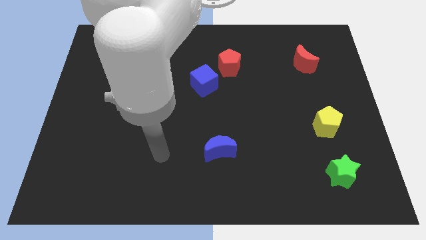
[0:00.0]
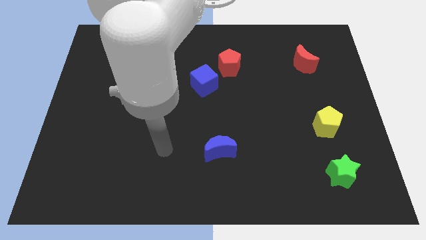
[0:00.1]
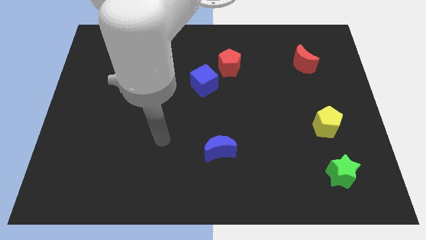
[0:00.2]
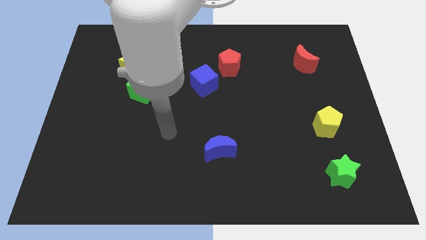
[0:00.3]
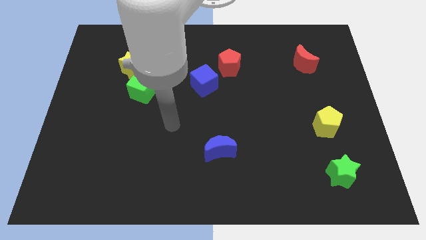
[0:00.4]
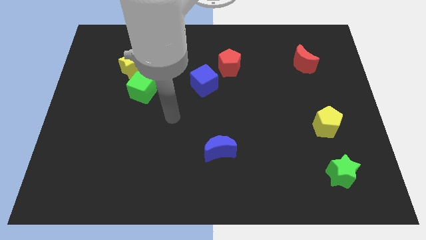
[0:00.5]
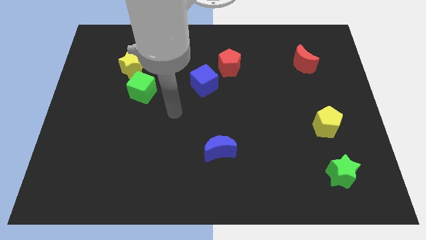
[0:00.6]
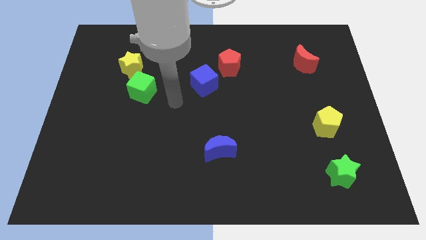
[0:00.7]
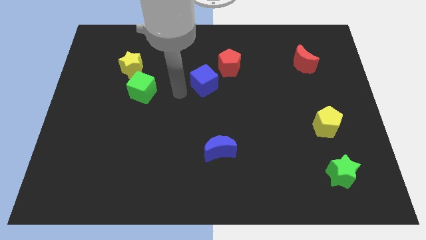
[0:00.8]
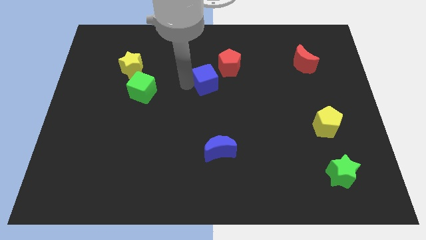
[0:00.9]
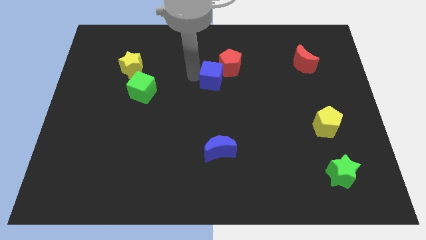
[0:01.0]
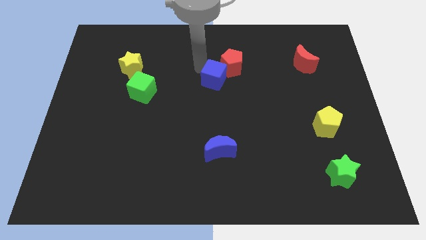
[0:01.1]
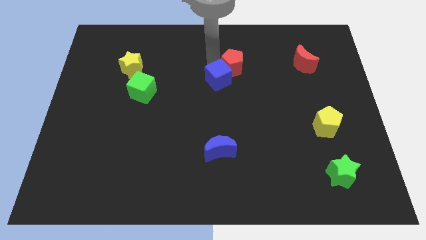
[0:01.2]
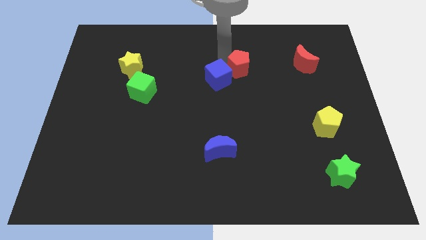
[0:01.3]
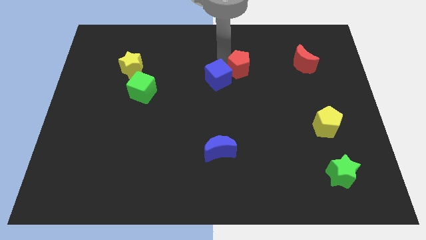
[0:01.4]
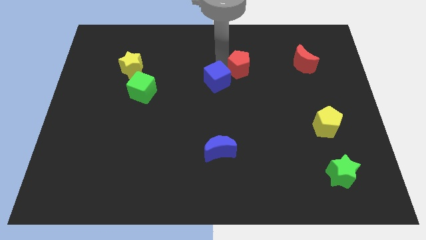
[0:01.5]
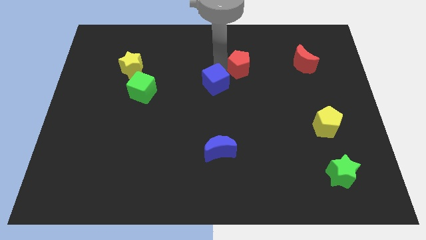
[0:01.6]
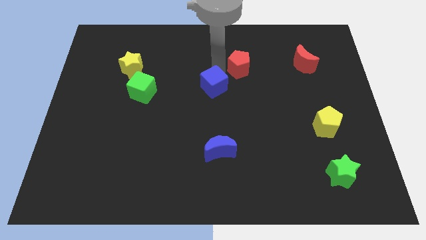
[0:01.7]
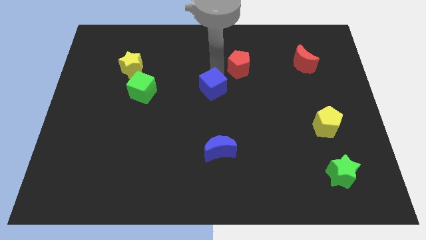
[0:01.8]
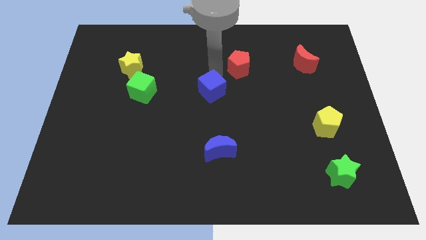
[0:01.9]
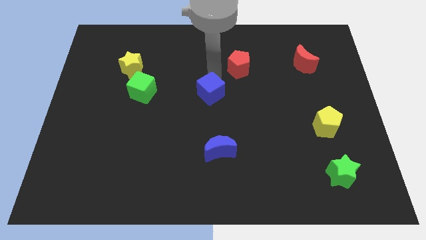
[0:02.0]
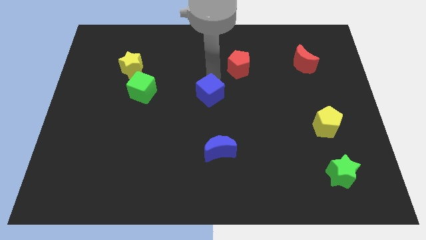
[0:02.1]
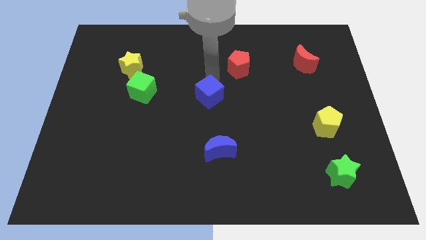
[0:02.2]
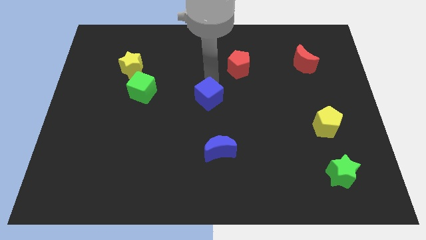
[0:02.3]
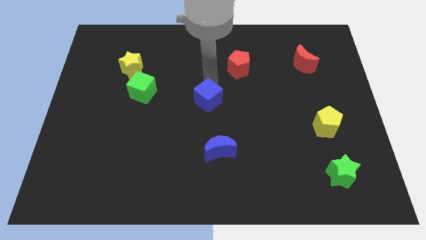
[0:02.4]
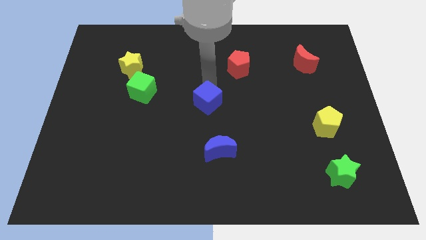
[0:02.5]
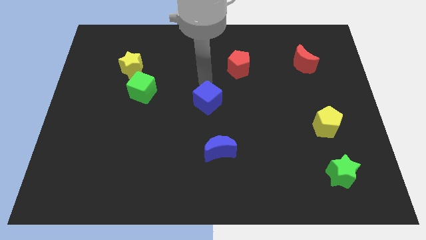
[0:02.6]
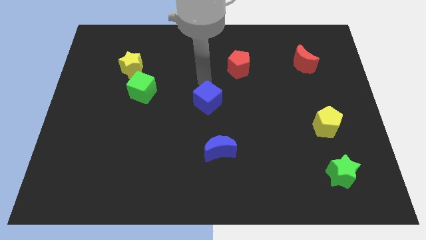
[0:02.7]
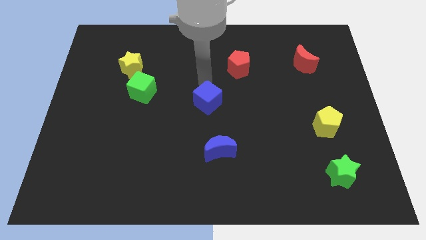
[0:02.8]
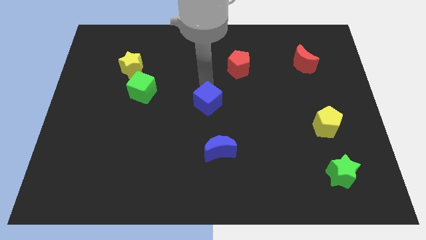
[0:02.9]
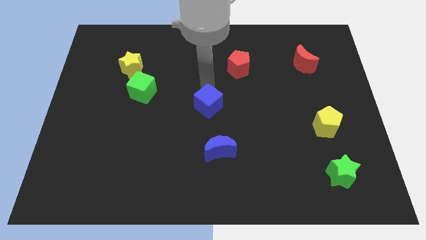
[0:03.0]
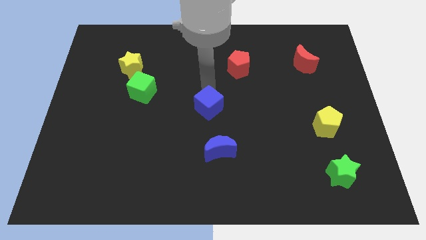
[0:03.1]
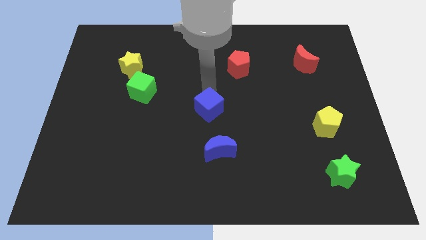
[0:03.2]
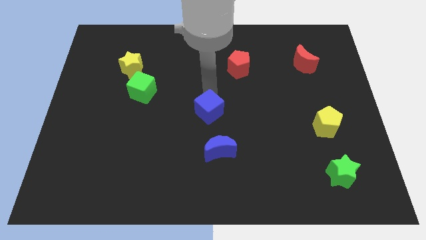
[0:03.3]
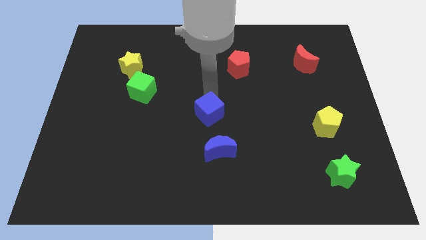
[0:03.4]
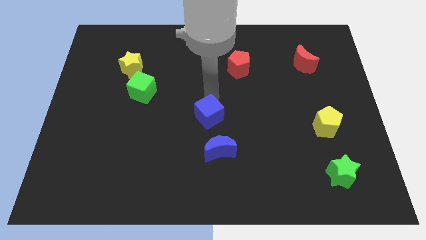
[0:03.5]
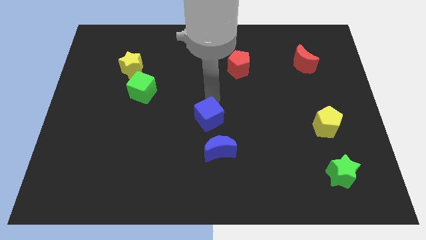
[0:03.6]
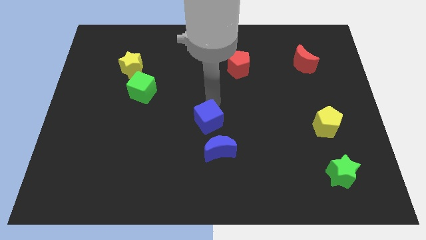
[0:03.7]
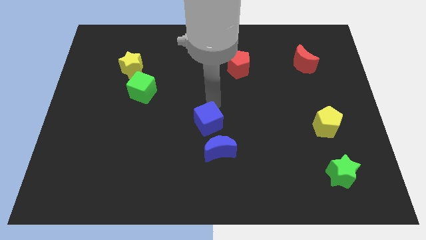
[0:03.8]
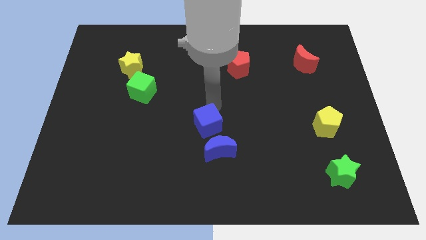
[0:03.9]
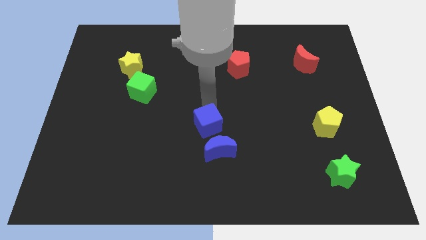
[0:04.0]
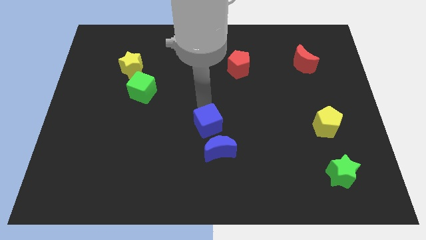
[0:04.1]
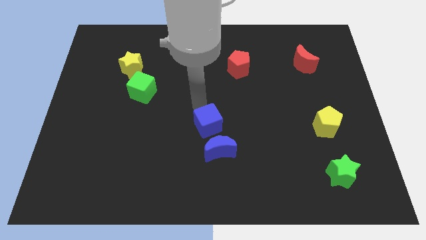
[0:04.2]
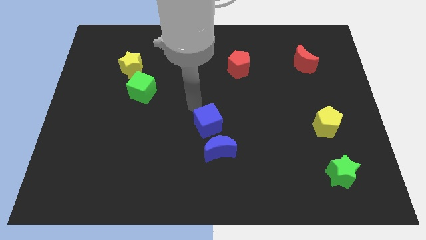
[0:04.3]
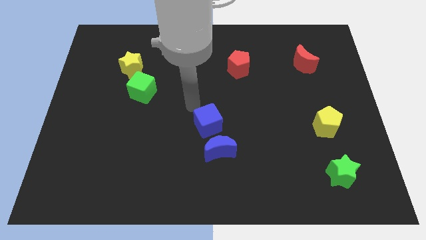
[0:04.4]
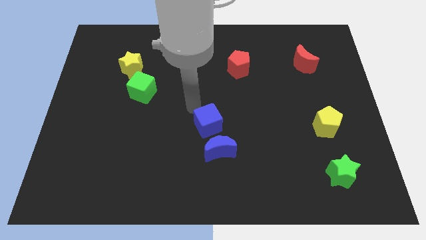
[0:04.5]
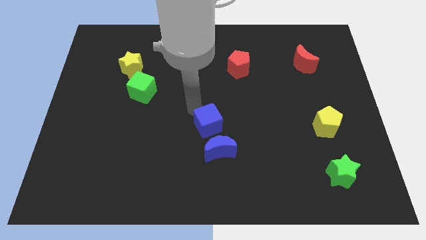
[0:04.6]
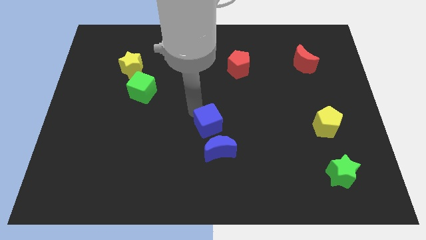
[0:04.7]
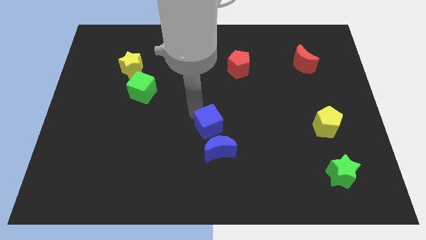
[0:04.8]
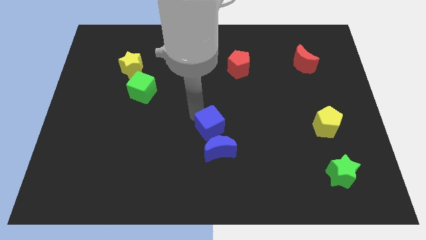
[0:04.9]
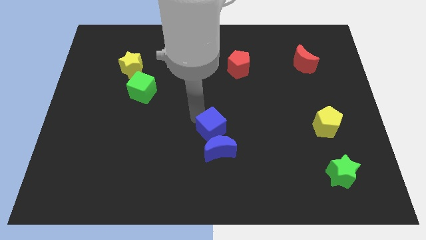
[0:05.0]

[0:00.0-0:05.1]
move the blue cube to the blue moon

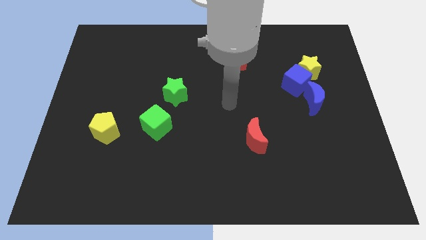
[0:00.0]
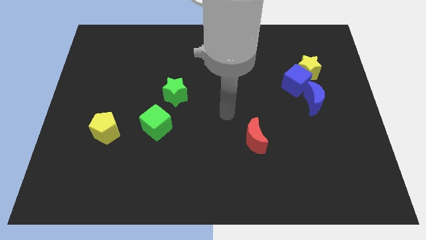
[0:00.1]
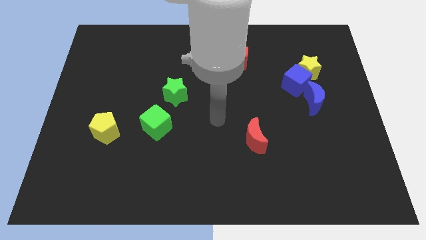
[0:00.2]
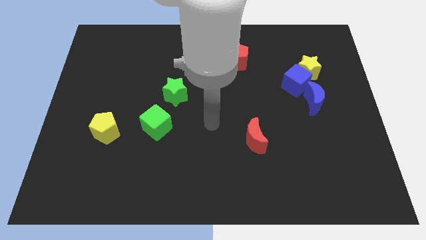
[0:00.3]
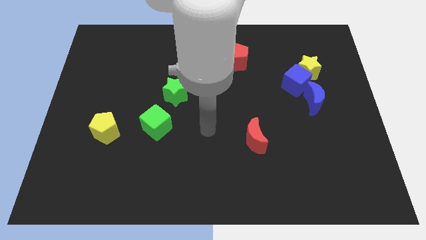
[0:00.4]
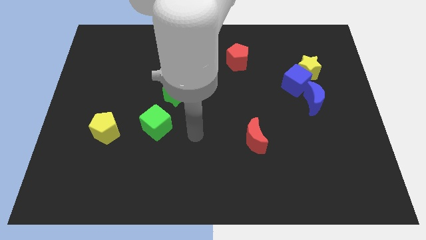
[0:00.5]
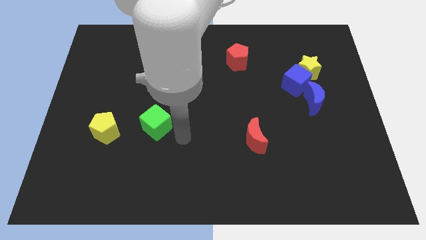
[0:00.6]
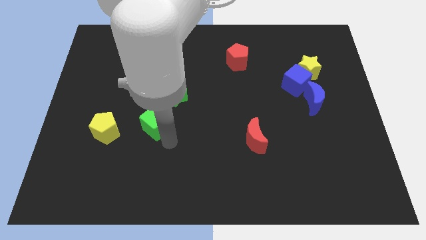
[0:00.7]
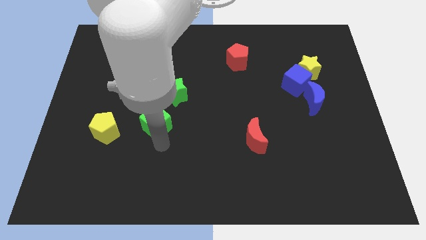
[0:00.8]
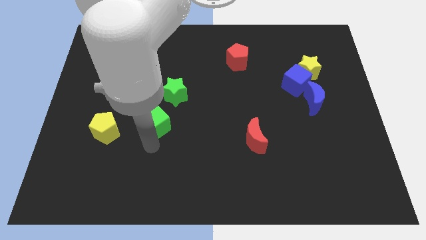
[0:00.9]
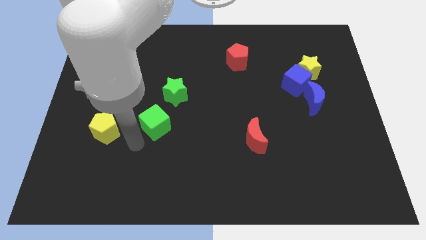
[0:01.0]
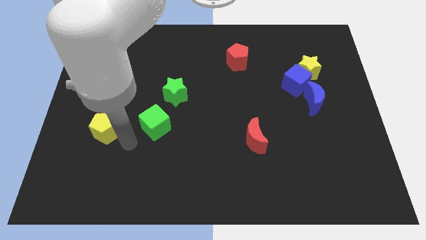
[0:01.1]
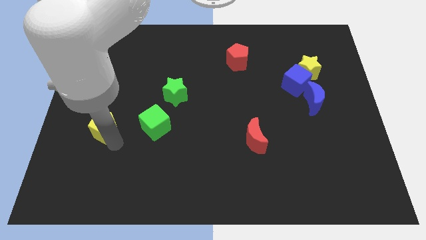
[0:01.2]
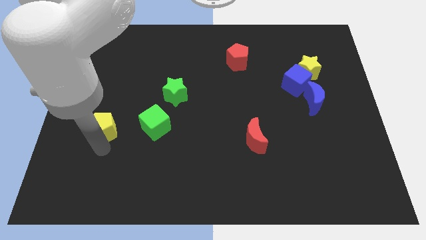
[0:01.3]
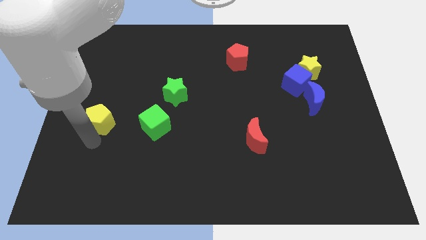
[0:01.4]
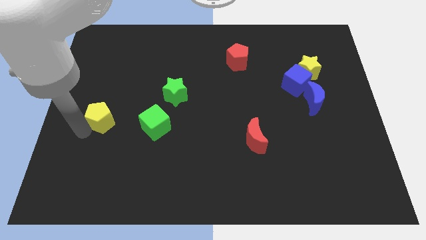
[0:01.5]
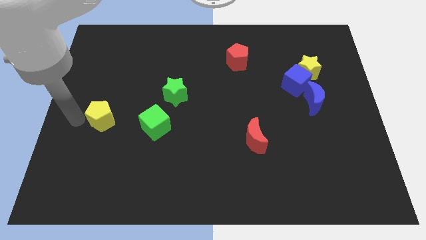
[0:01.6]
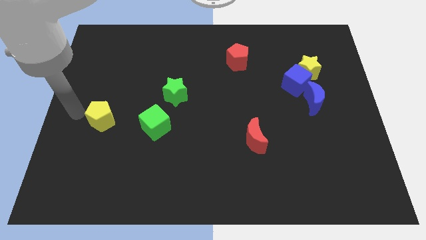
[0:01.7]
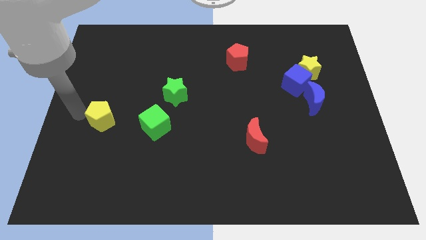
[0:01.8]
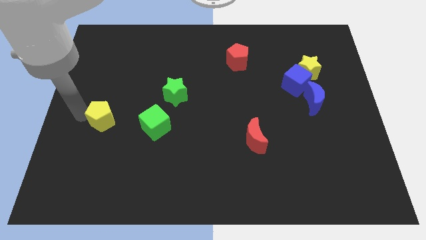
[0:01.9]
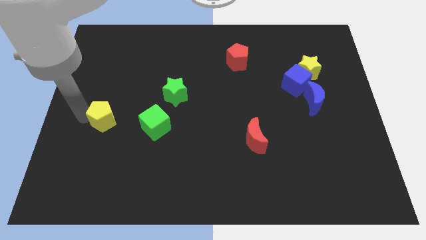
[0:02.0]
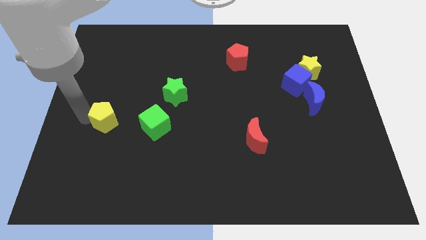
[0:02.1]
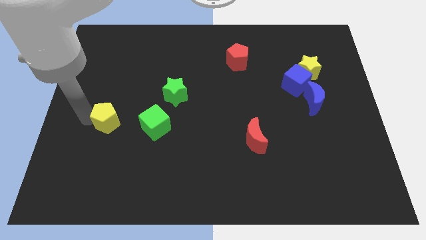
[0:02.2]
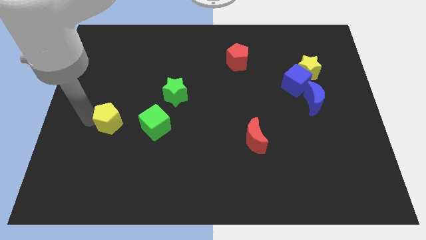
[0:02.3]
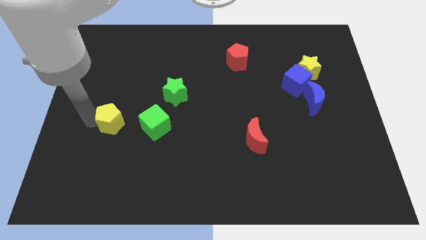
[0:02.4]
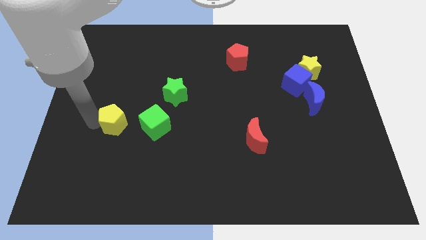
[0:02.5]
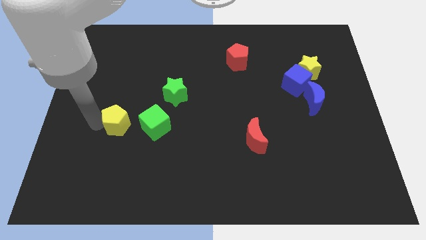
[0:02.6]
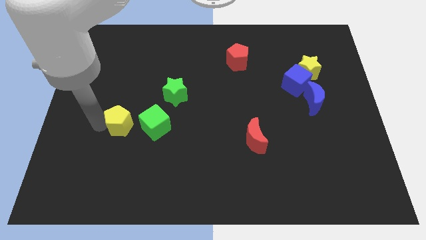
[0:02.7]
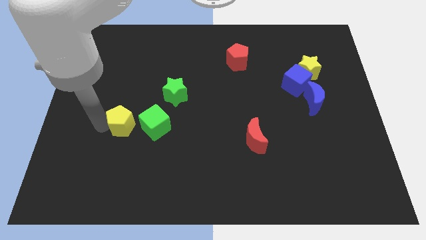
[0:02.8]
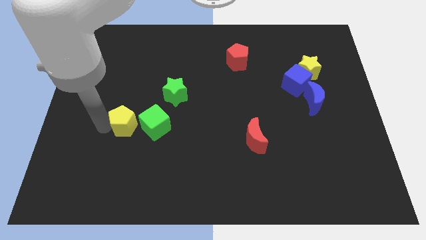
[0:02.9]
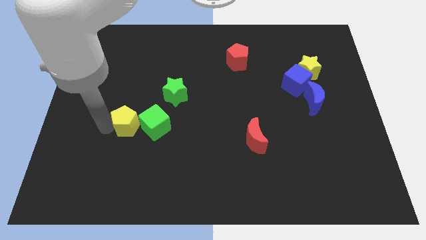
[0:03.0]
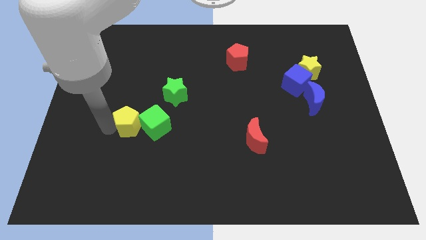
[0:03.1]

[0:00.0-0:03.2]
put the yellow pentagon to the green cube
